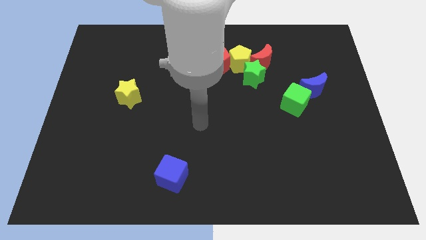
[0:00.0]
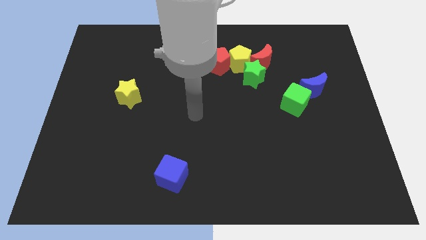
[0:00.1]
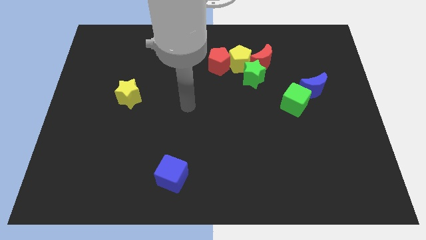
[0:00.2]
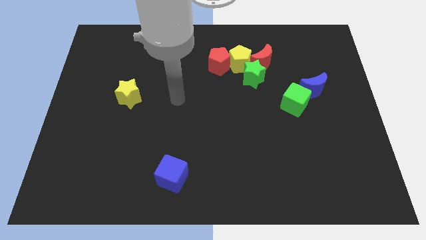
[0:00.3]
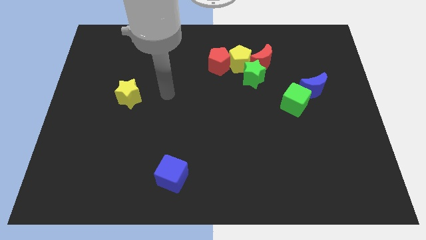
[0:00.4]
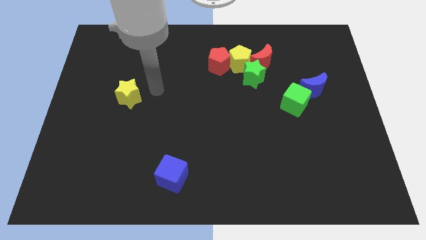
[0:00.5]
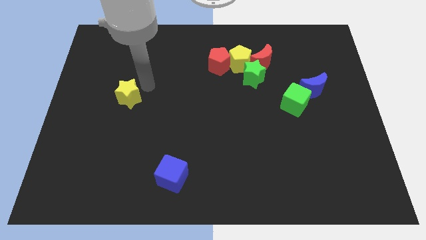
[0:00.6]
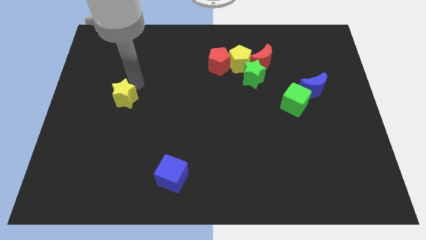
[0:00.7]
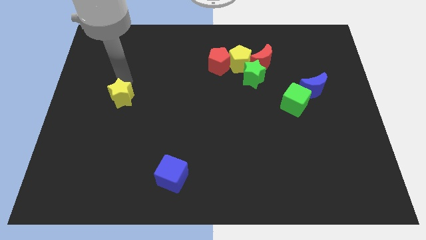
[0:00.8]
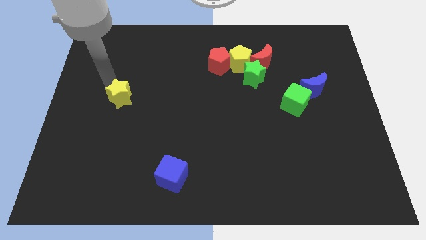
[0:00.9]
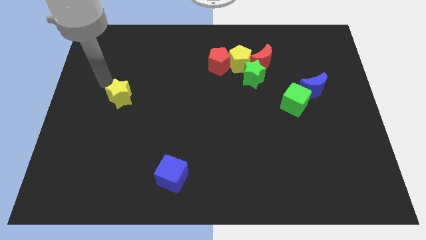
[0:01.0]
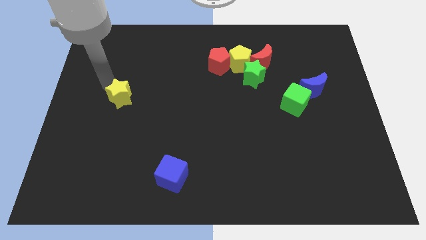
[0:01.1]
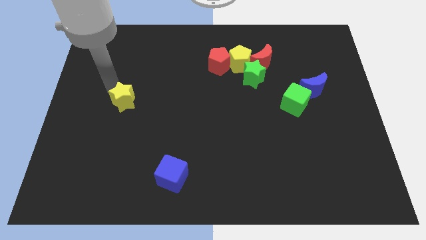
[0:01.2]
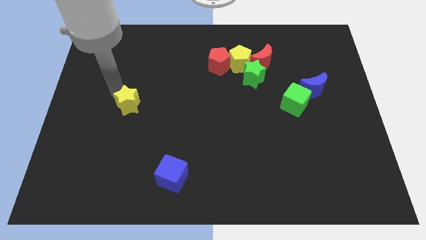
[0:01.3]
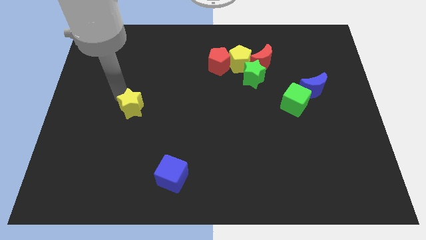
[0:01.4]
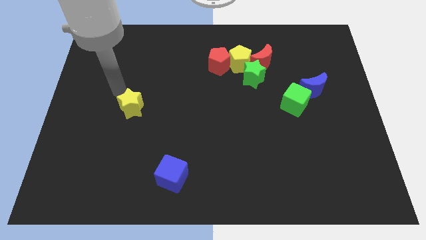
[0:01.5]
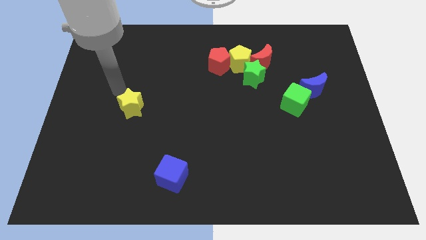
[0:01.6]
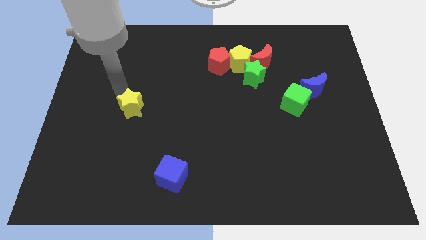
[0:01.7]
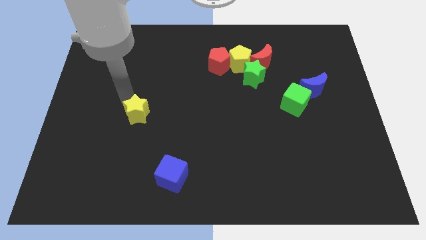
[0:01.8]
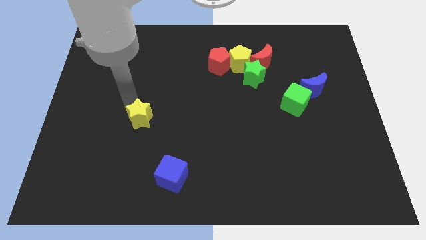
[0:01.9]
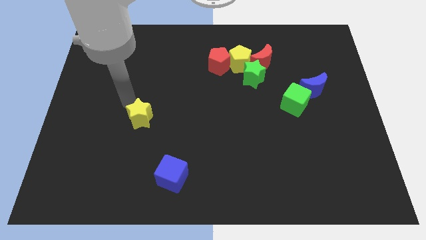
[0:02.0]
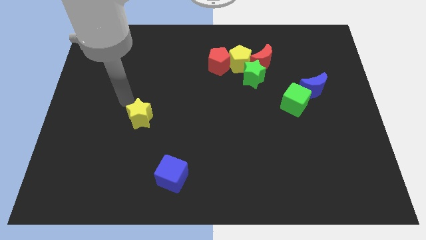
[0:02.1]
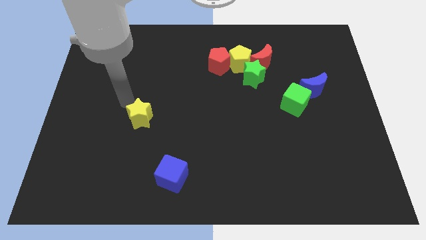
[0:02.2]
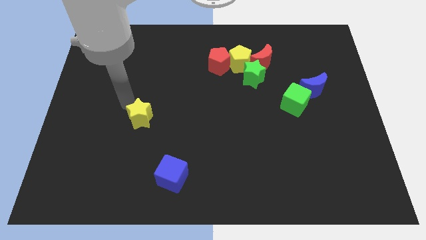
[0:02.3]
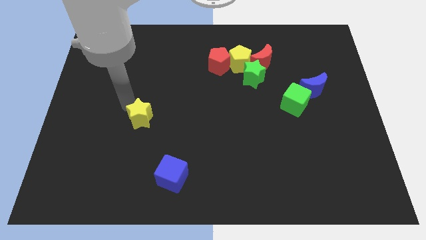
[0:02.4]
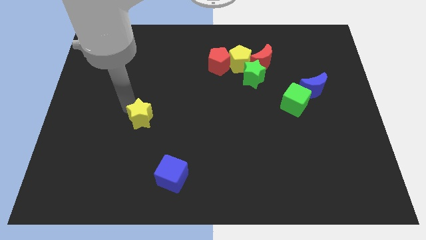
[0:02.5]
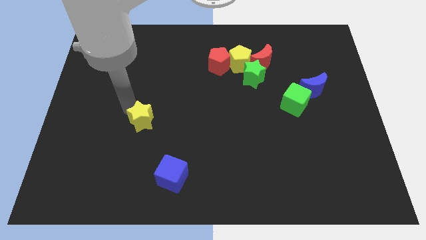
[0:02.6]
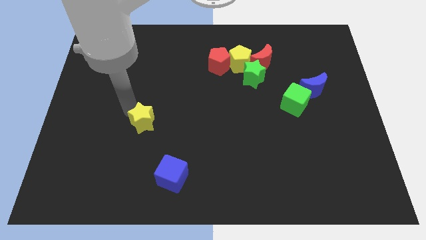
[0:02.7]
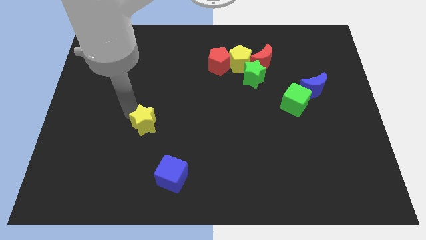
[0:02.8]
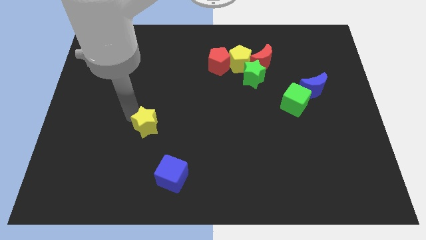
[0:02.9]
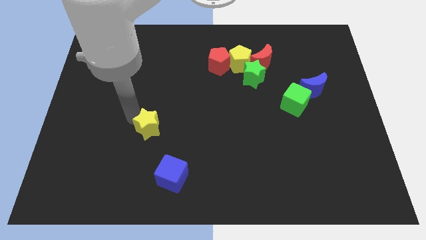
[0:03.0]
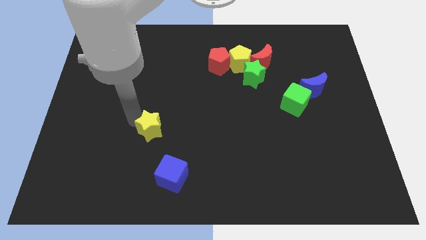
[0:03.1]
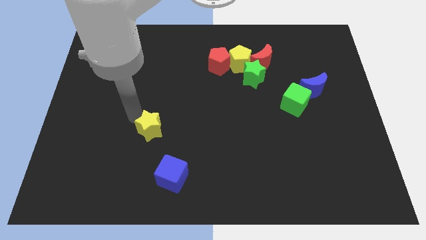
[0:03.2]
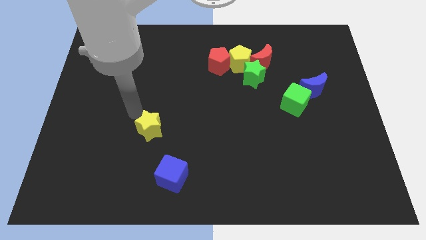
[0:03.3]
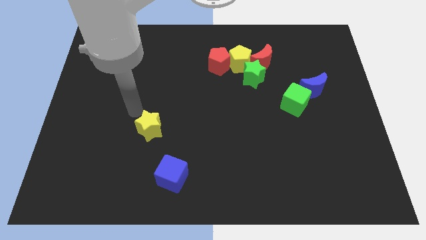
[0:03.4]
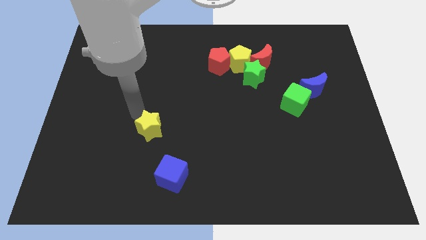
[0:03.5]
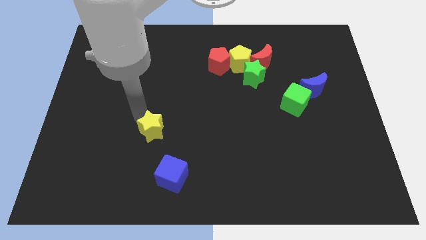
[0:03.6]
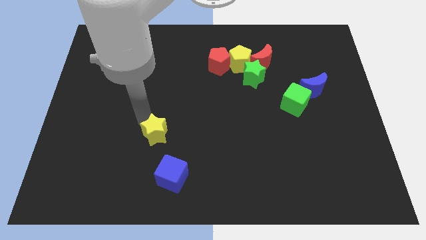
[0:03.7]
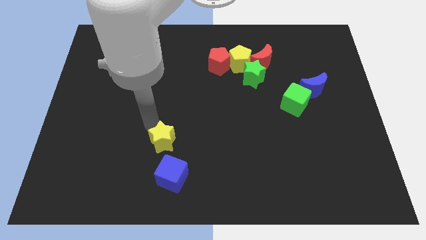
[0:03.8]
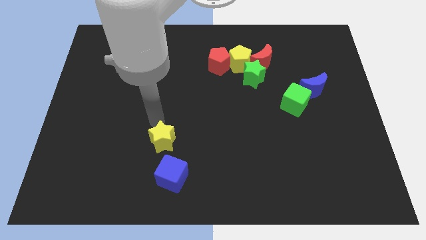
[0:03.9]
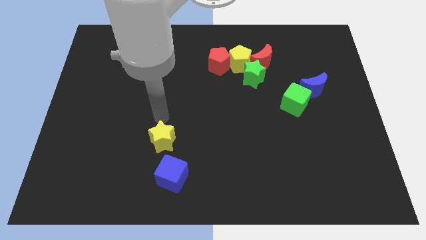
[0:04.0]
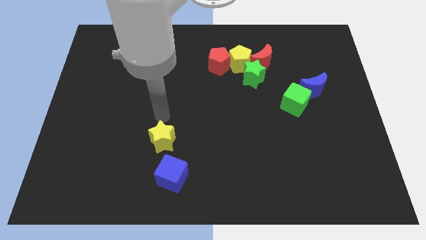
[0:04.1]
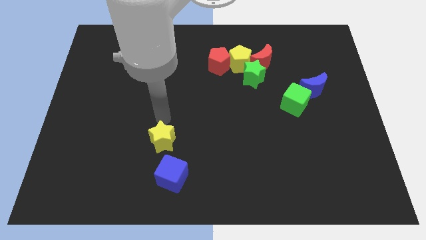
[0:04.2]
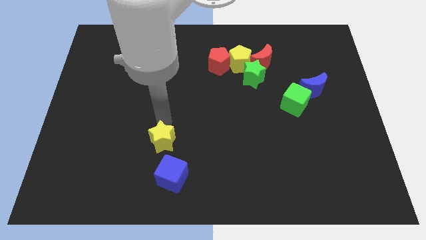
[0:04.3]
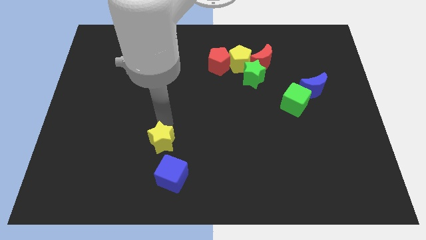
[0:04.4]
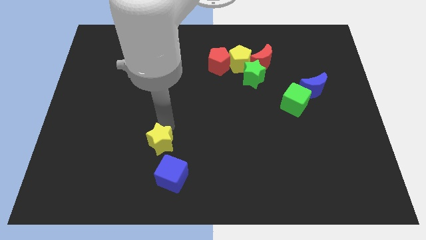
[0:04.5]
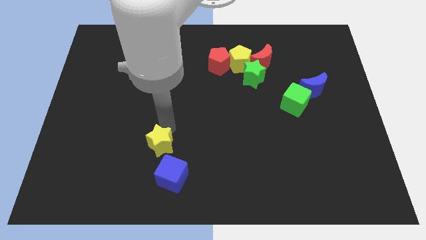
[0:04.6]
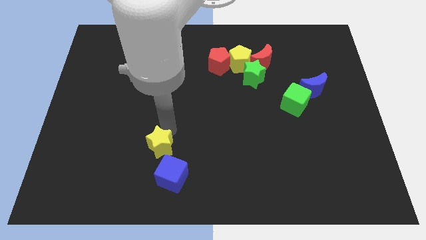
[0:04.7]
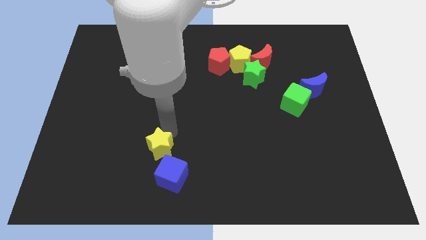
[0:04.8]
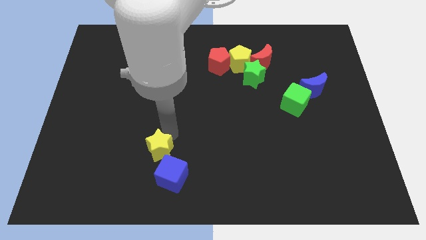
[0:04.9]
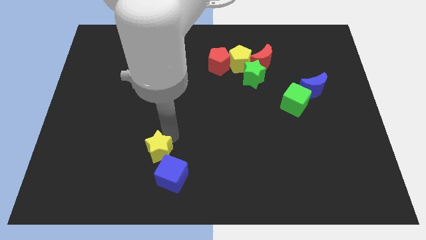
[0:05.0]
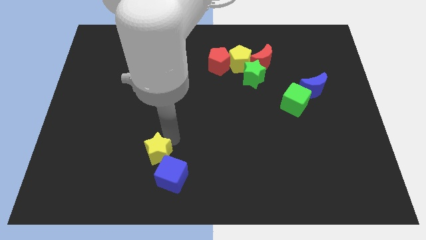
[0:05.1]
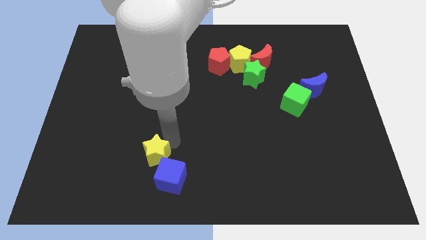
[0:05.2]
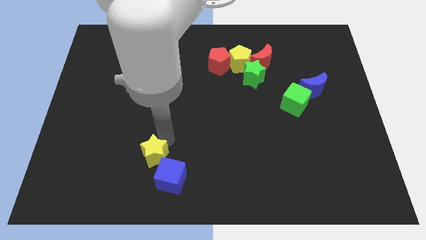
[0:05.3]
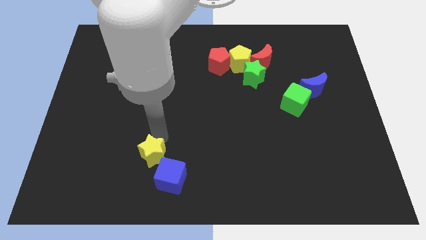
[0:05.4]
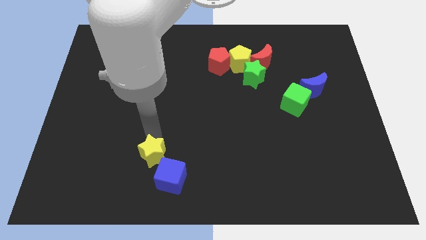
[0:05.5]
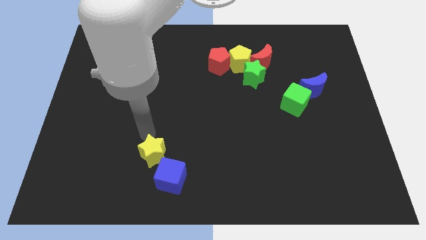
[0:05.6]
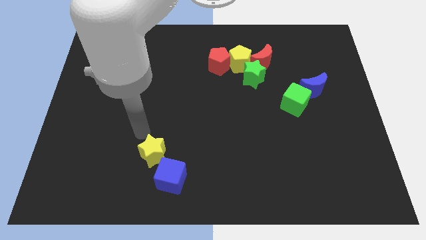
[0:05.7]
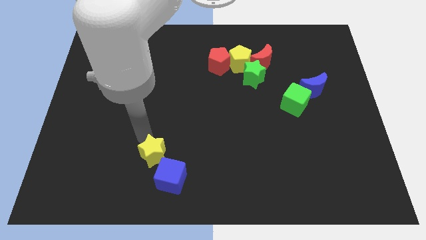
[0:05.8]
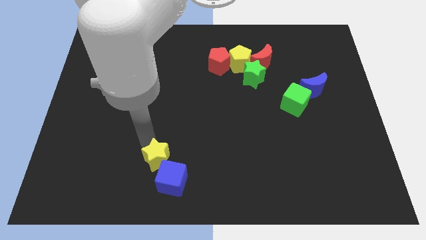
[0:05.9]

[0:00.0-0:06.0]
put the yellow star towards the blue cube

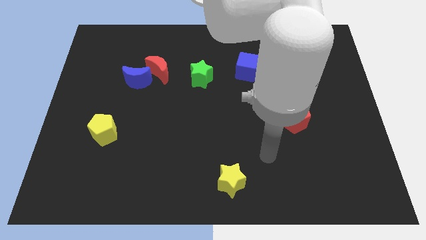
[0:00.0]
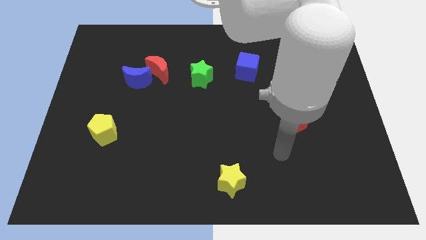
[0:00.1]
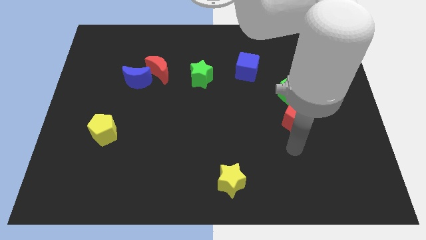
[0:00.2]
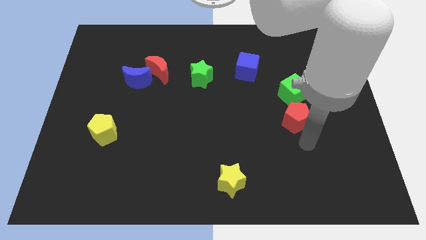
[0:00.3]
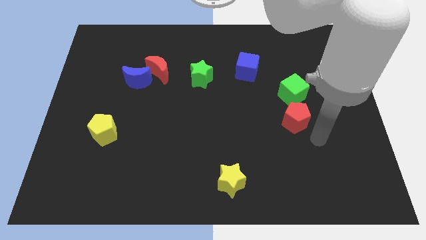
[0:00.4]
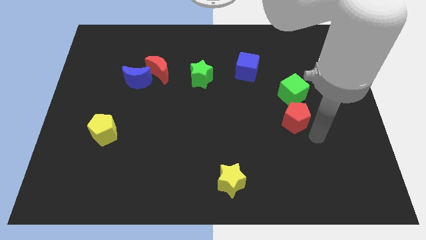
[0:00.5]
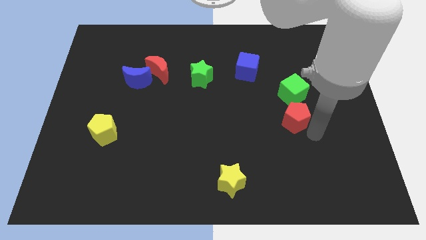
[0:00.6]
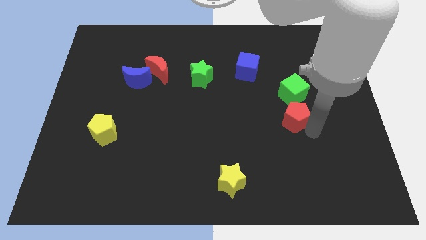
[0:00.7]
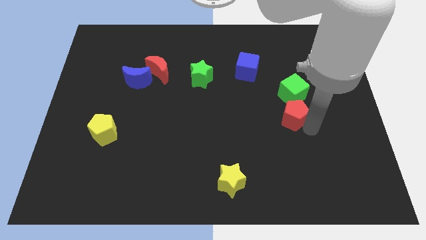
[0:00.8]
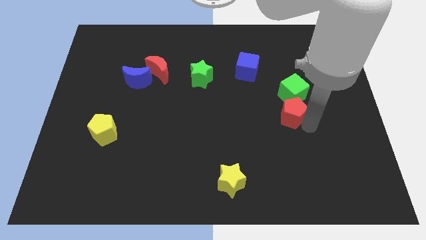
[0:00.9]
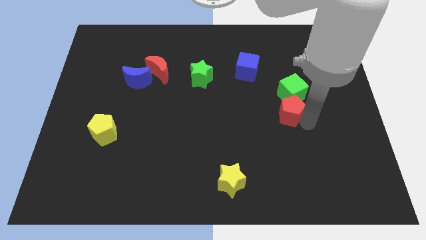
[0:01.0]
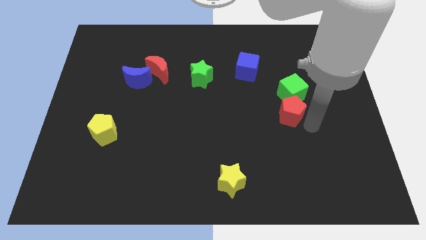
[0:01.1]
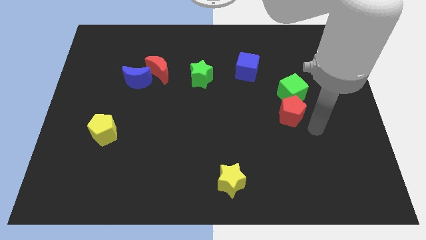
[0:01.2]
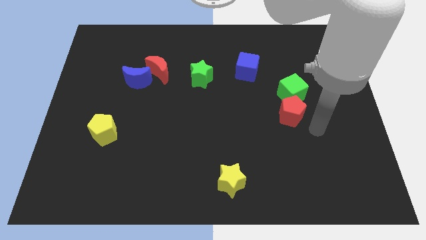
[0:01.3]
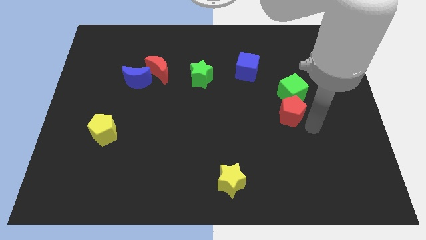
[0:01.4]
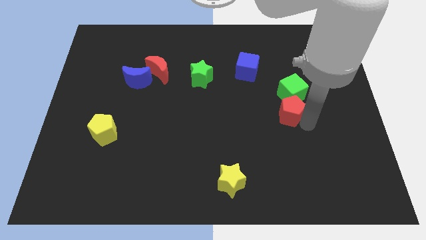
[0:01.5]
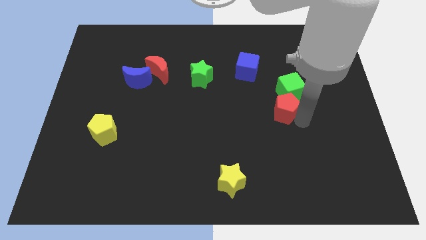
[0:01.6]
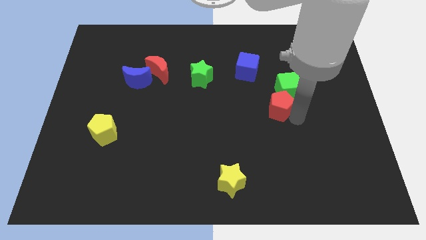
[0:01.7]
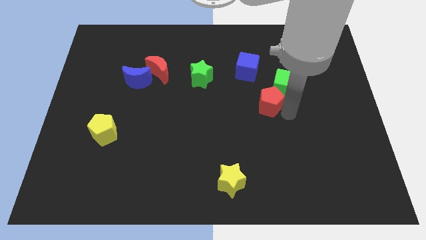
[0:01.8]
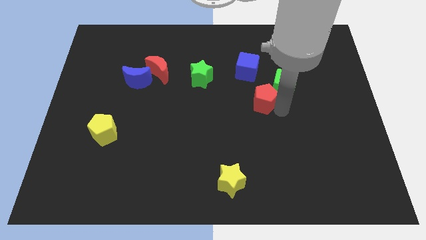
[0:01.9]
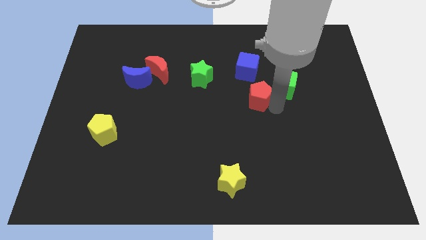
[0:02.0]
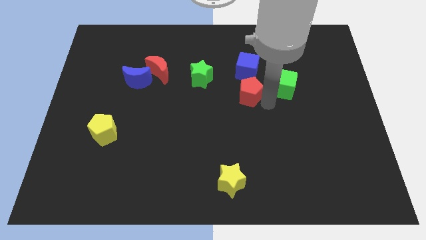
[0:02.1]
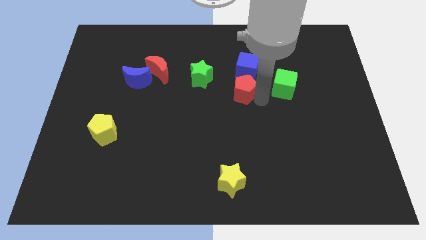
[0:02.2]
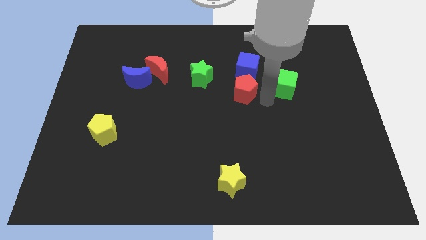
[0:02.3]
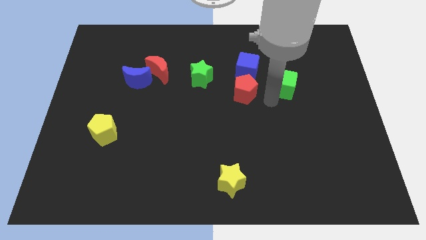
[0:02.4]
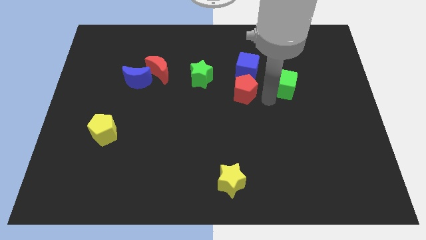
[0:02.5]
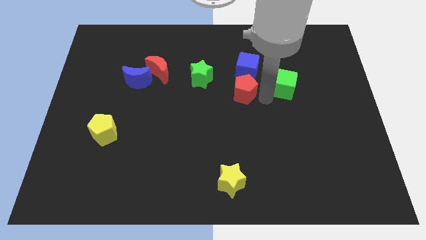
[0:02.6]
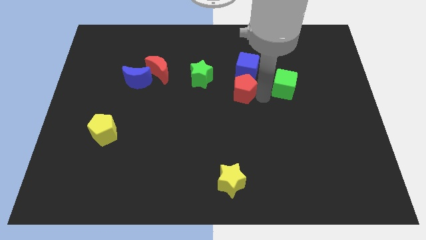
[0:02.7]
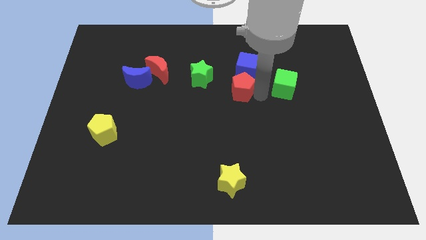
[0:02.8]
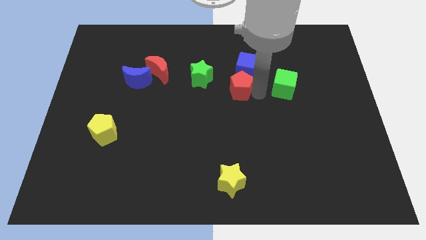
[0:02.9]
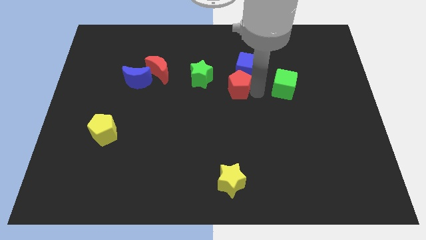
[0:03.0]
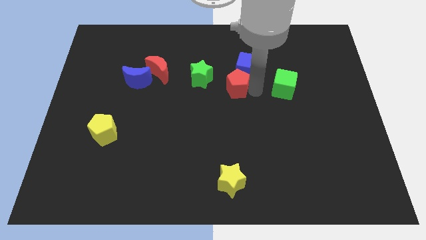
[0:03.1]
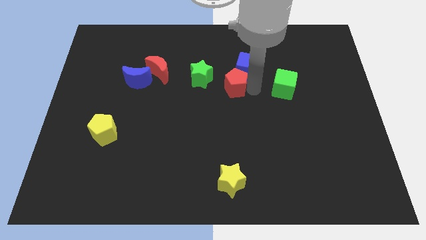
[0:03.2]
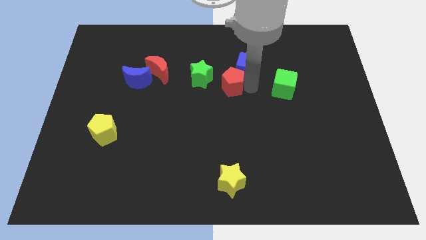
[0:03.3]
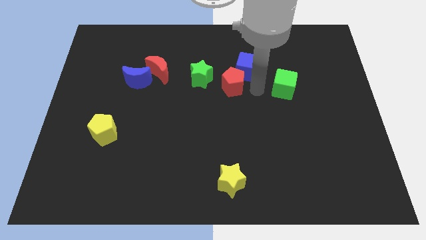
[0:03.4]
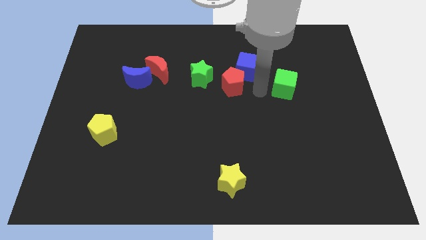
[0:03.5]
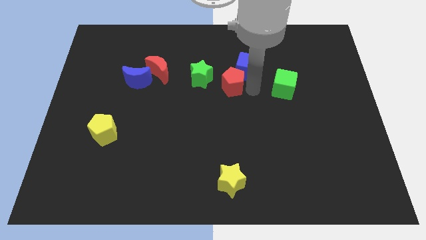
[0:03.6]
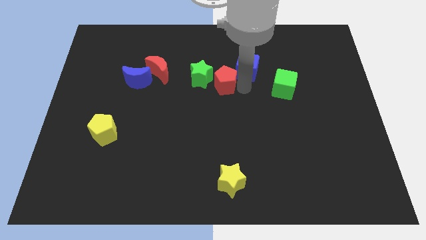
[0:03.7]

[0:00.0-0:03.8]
push the red pentagon close to the green star
